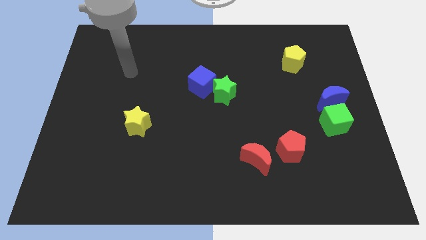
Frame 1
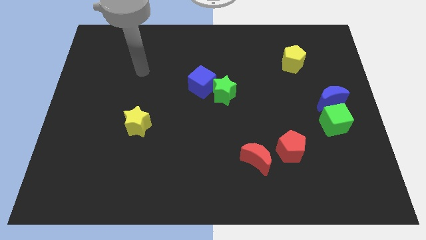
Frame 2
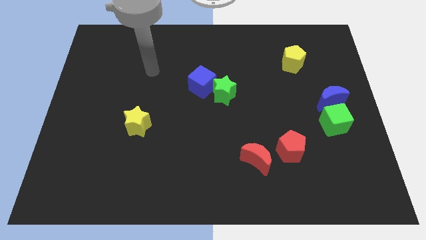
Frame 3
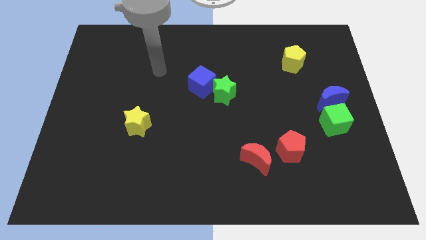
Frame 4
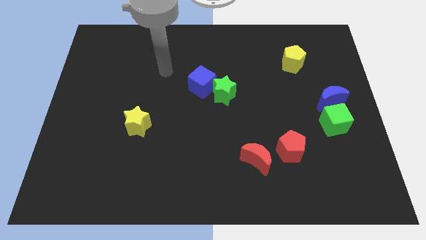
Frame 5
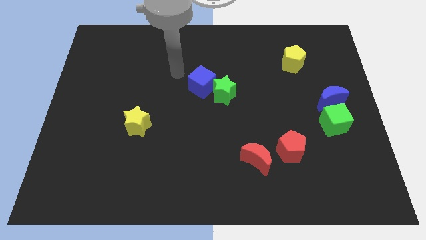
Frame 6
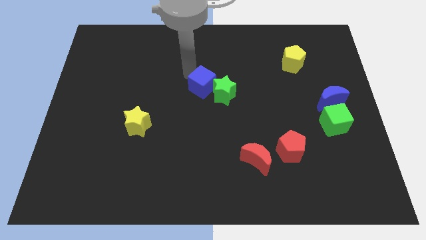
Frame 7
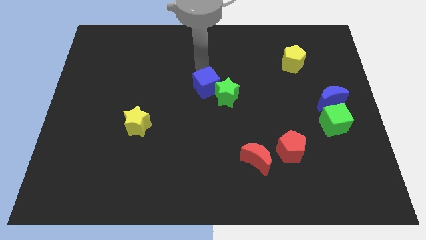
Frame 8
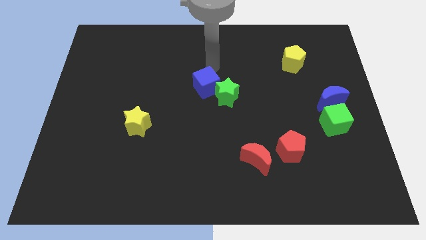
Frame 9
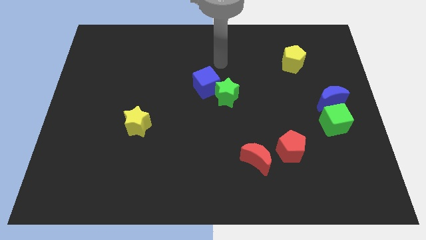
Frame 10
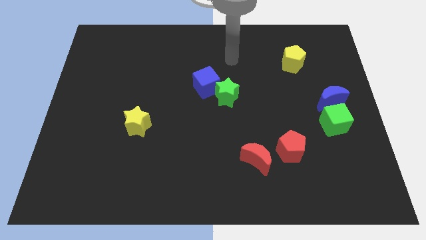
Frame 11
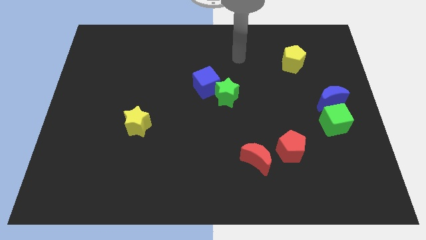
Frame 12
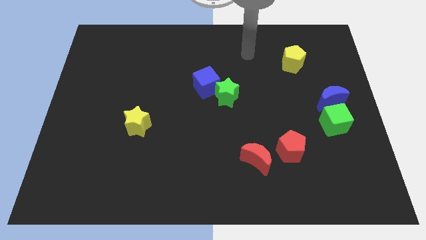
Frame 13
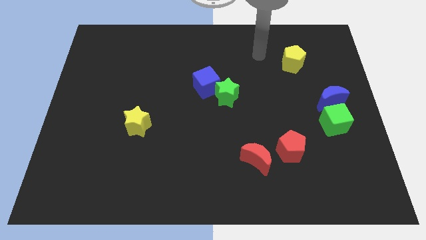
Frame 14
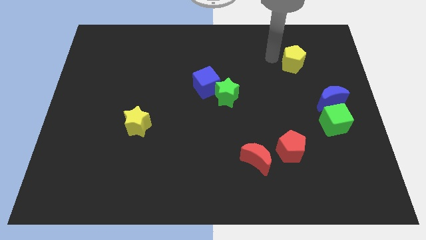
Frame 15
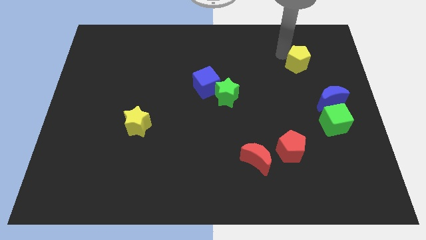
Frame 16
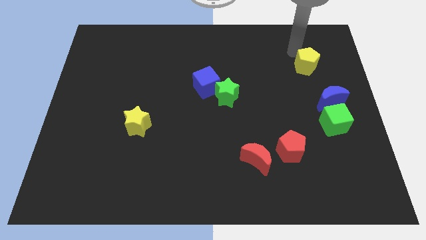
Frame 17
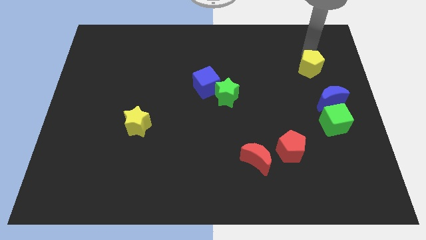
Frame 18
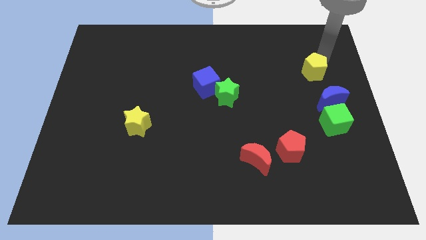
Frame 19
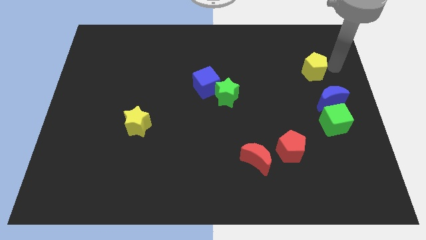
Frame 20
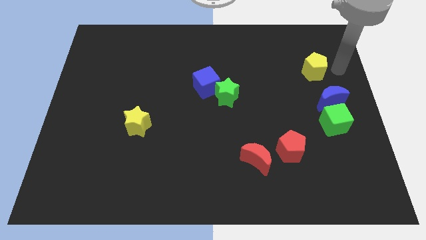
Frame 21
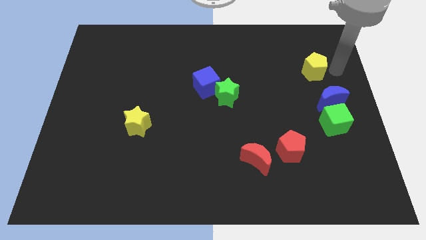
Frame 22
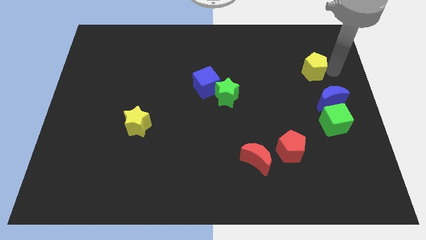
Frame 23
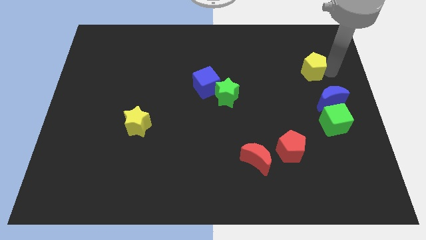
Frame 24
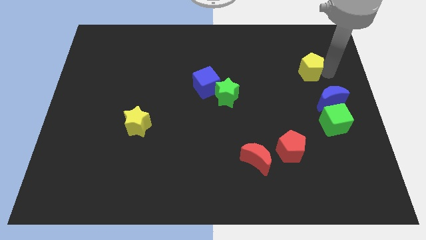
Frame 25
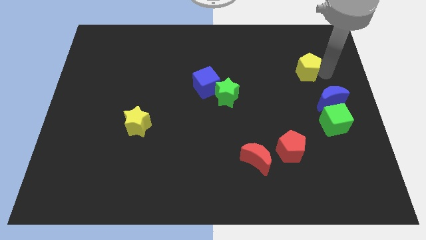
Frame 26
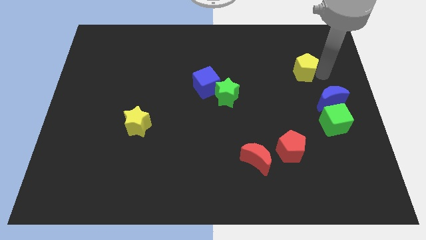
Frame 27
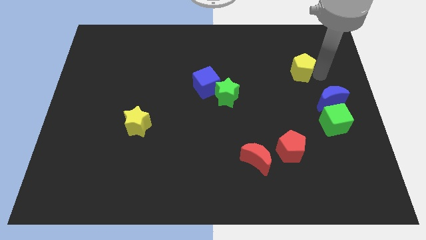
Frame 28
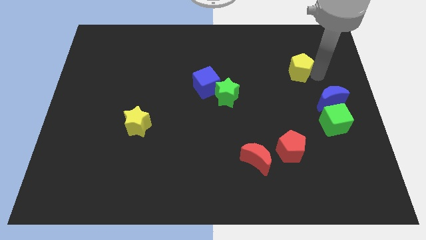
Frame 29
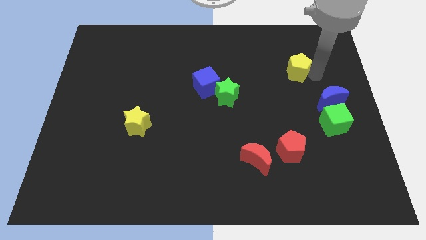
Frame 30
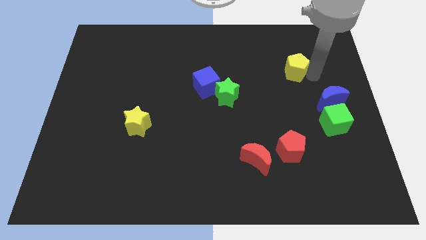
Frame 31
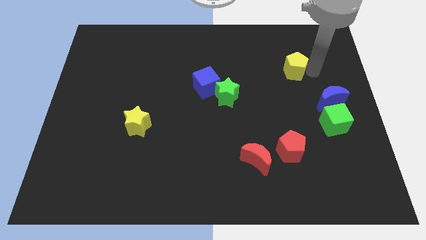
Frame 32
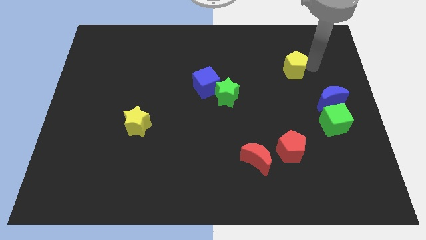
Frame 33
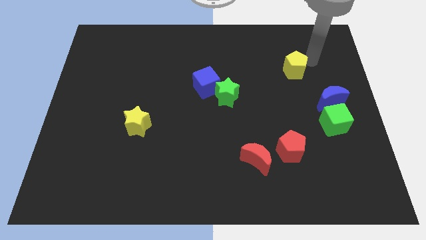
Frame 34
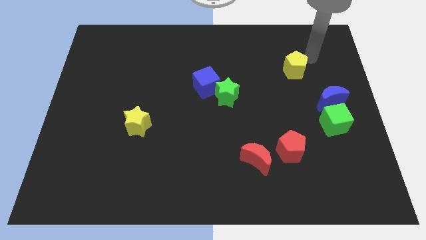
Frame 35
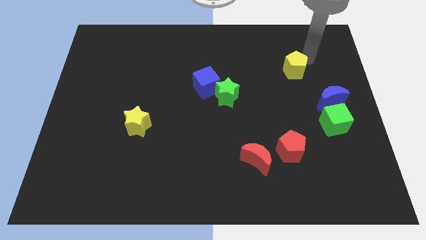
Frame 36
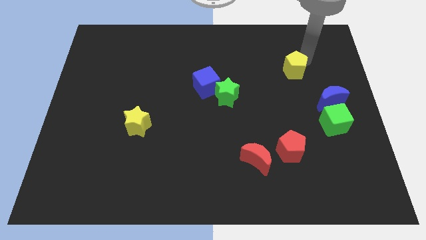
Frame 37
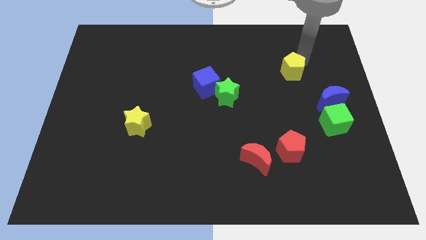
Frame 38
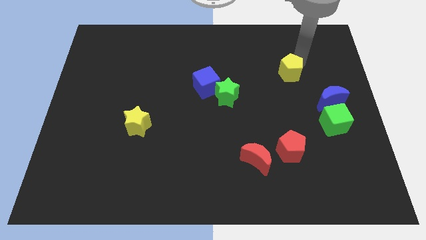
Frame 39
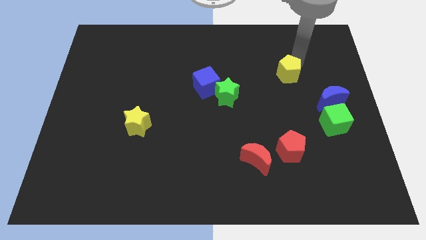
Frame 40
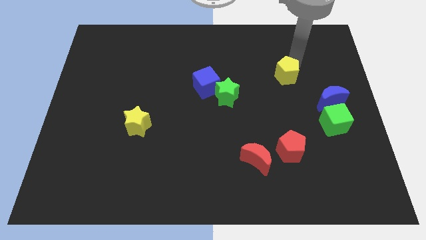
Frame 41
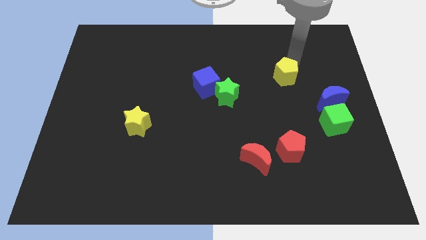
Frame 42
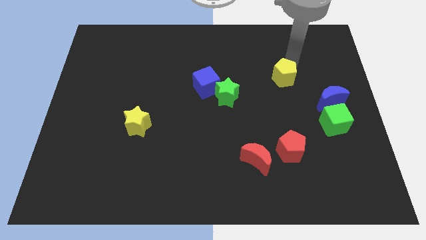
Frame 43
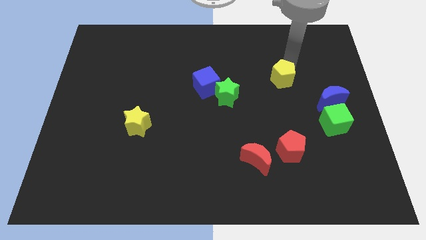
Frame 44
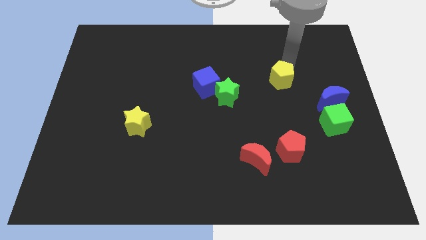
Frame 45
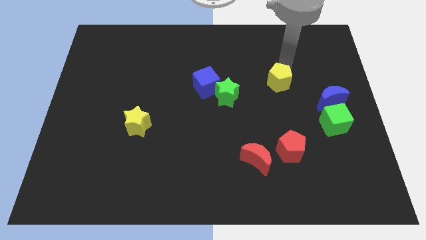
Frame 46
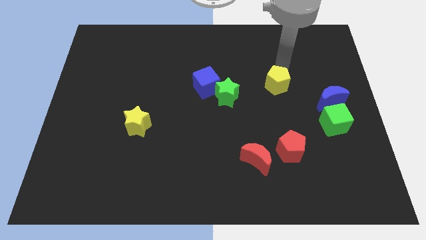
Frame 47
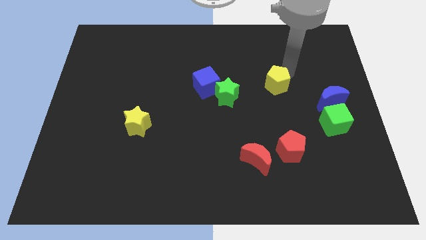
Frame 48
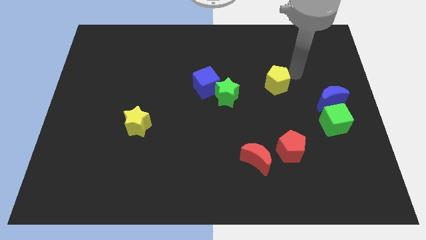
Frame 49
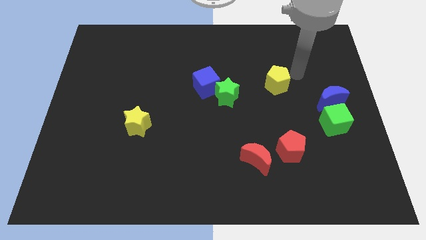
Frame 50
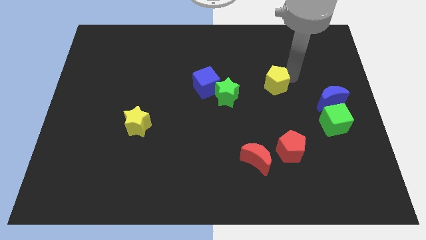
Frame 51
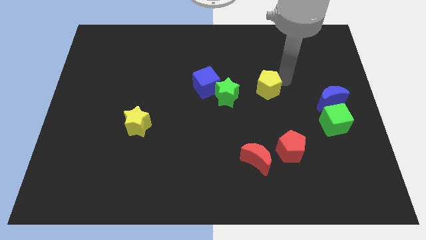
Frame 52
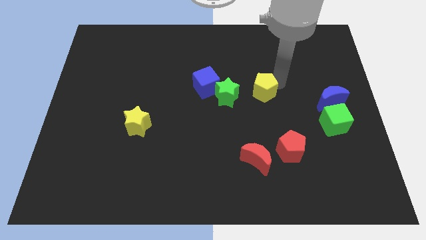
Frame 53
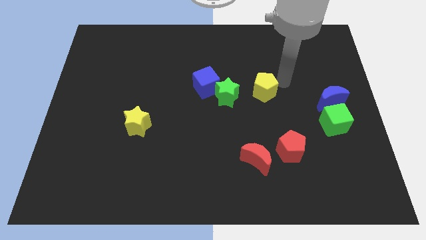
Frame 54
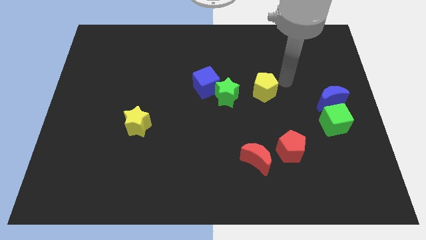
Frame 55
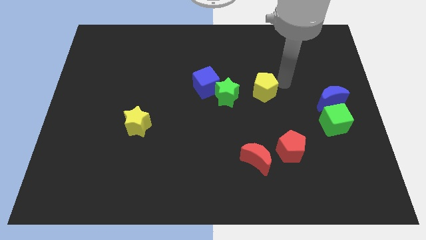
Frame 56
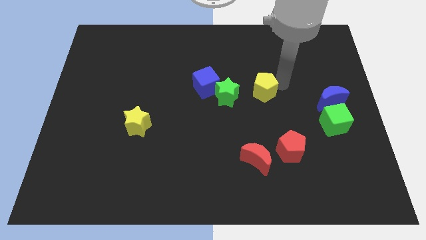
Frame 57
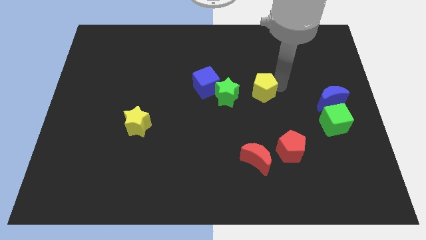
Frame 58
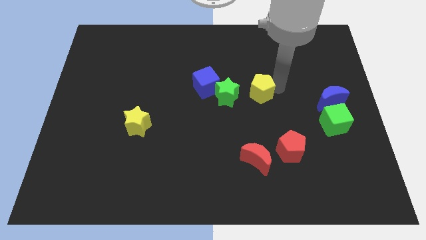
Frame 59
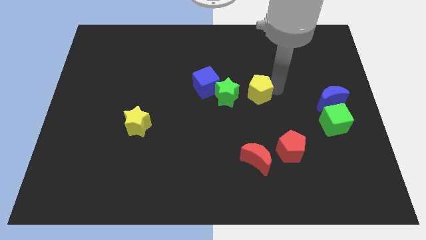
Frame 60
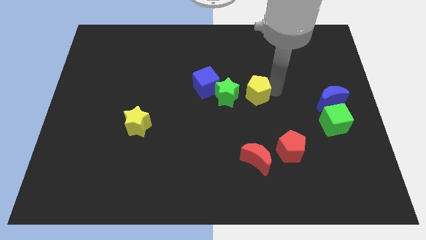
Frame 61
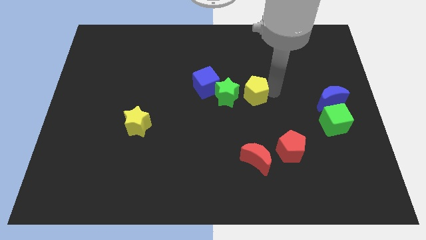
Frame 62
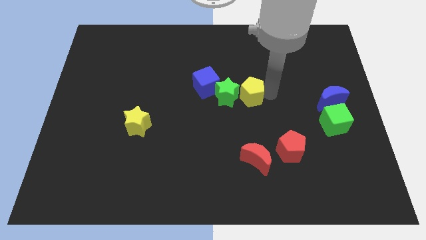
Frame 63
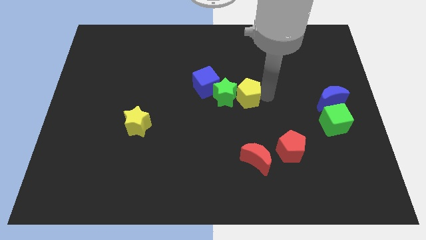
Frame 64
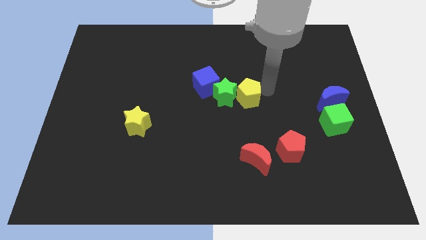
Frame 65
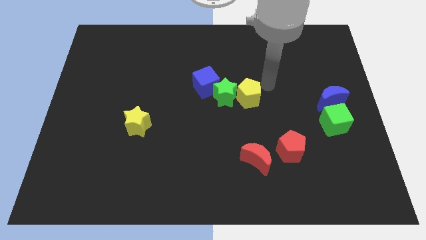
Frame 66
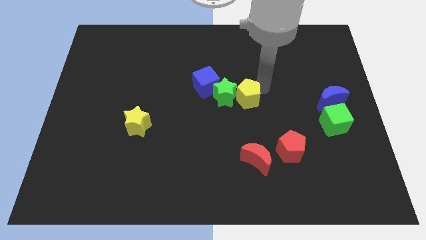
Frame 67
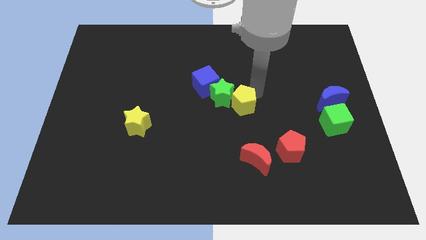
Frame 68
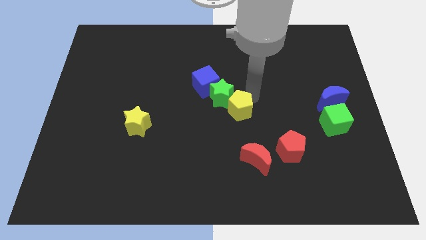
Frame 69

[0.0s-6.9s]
move the yellow pentagon down and then left

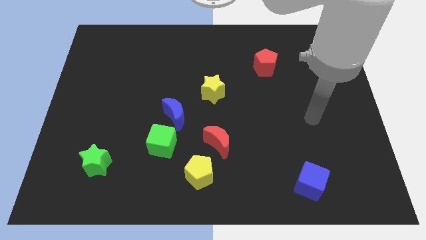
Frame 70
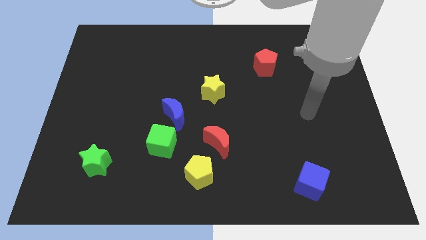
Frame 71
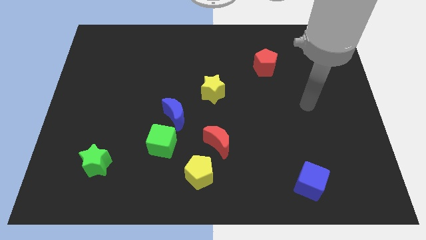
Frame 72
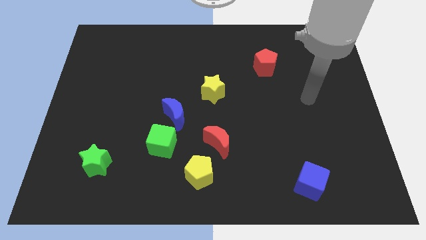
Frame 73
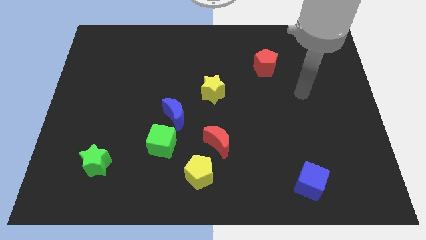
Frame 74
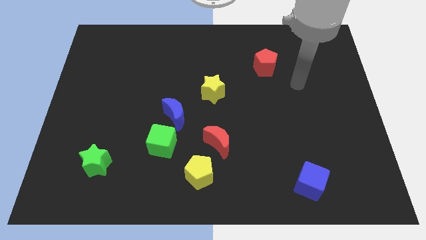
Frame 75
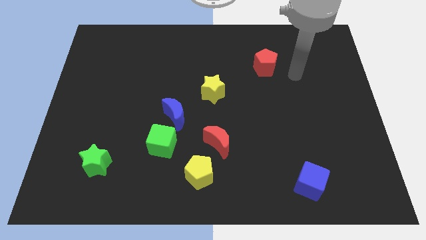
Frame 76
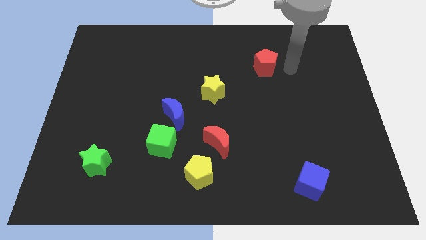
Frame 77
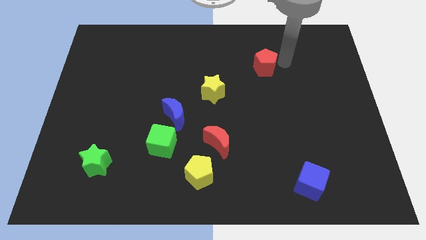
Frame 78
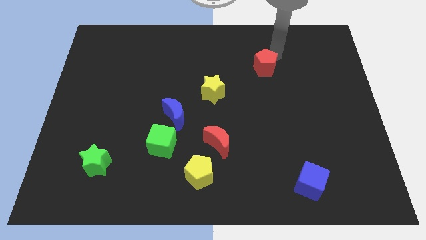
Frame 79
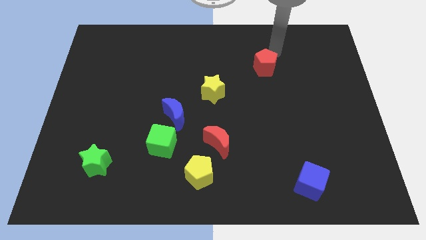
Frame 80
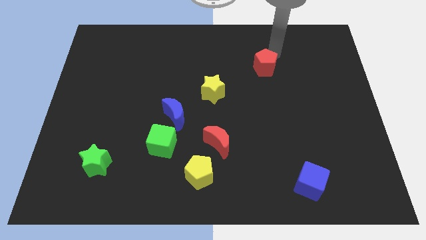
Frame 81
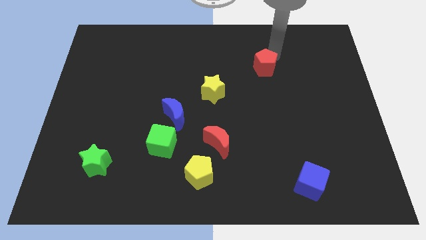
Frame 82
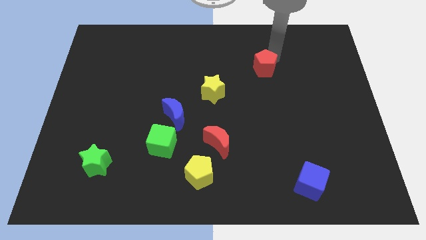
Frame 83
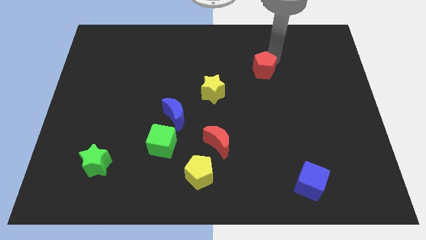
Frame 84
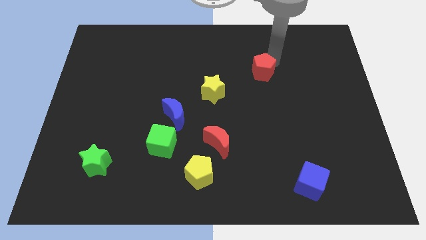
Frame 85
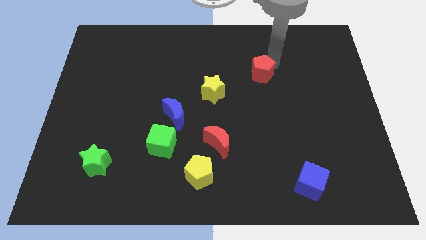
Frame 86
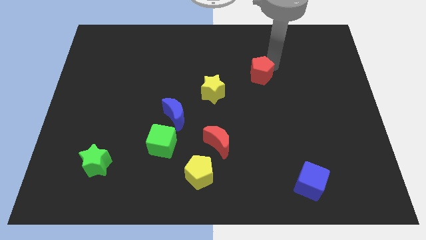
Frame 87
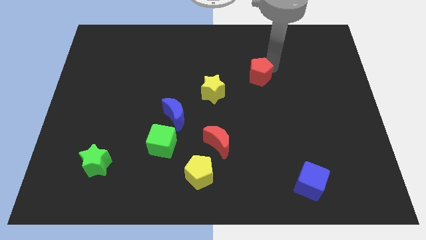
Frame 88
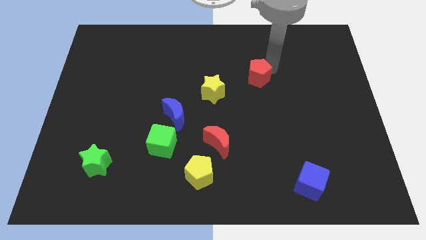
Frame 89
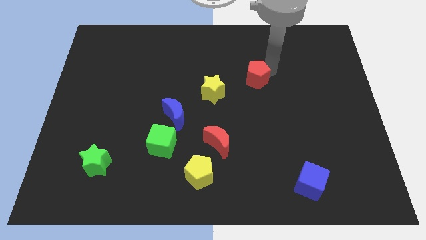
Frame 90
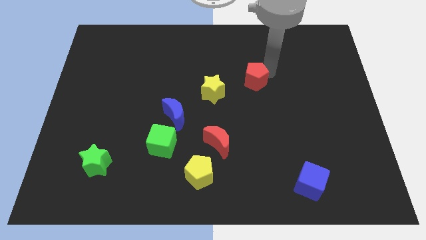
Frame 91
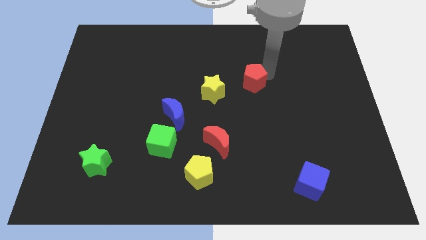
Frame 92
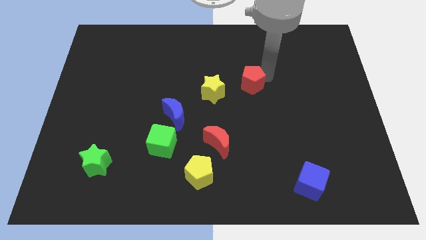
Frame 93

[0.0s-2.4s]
push the red pentagon somewhat downwards and then to the left
